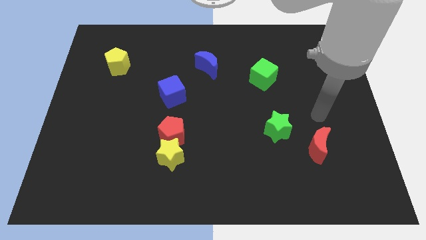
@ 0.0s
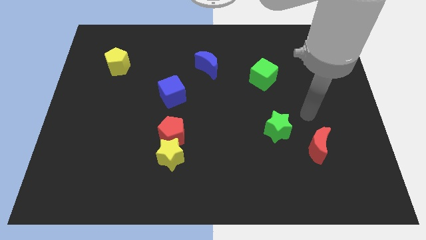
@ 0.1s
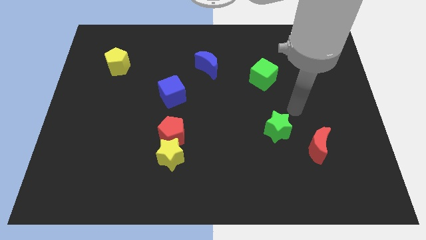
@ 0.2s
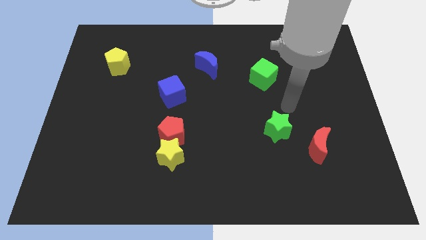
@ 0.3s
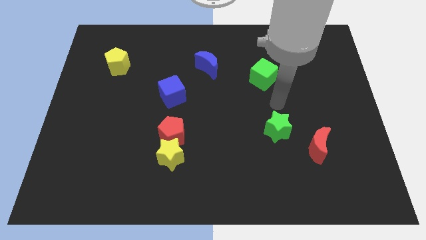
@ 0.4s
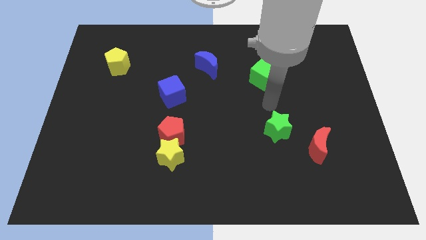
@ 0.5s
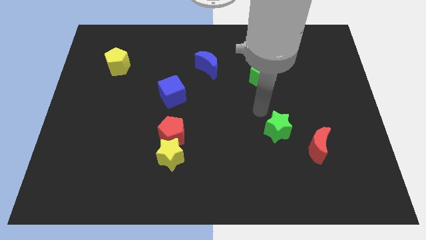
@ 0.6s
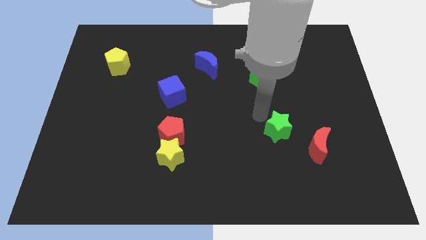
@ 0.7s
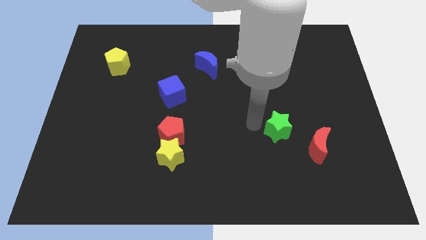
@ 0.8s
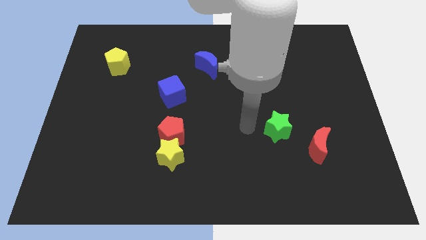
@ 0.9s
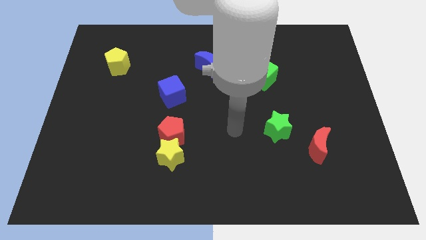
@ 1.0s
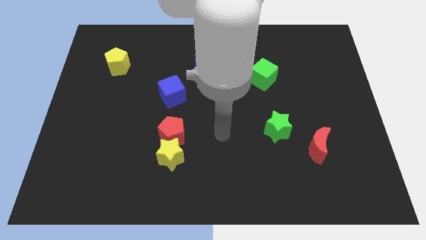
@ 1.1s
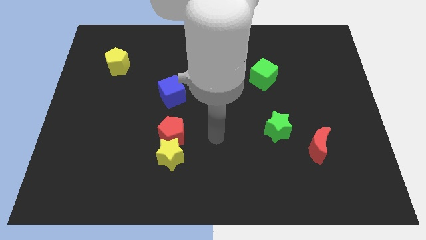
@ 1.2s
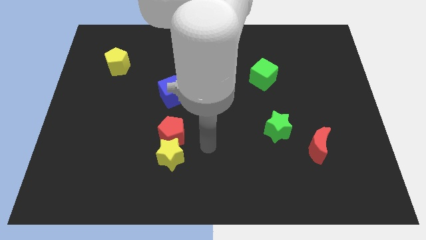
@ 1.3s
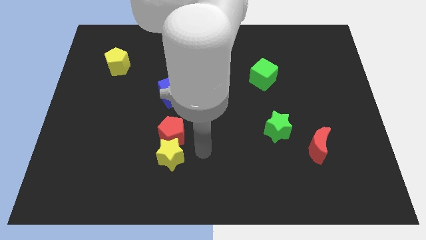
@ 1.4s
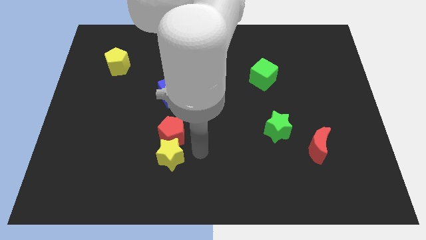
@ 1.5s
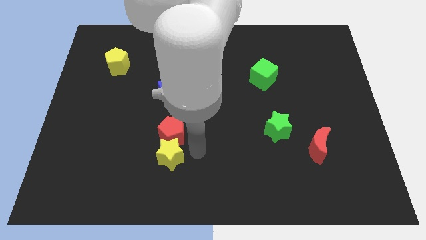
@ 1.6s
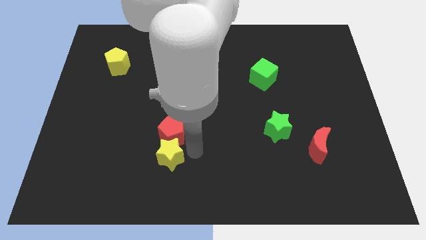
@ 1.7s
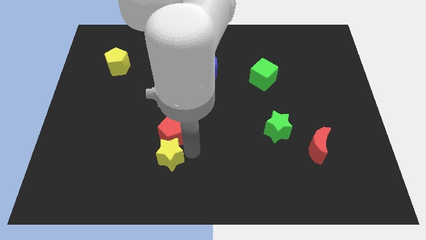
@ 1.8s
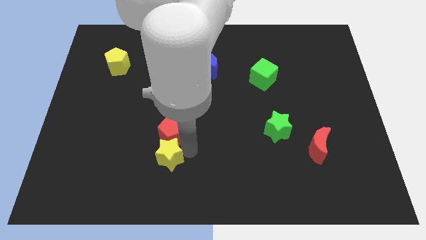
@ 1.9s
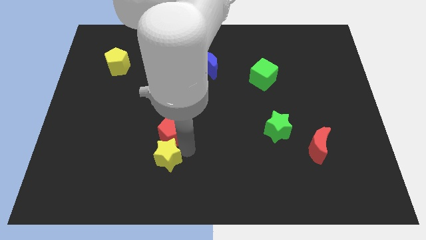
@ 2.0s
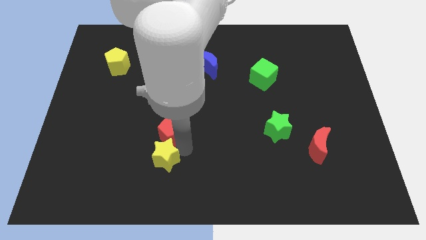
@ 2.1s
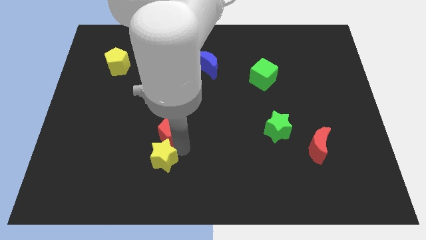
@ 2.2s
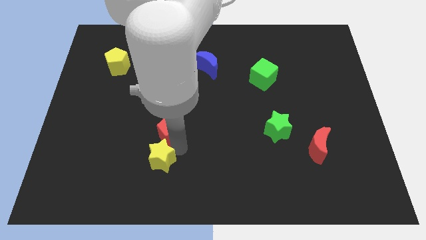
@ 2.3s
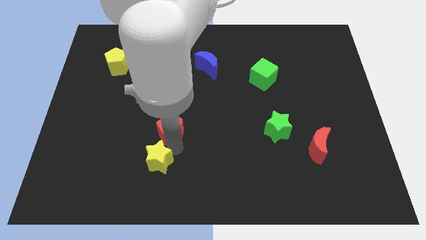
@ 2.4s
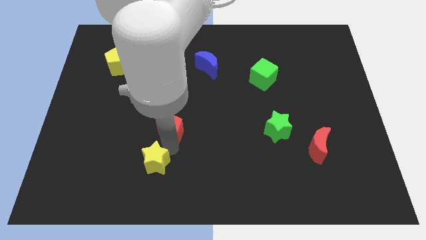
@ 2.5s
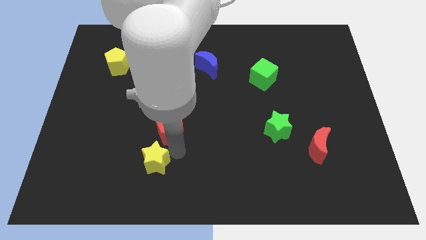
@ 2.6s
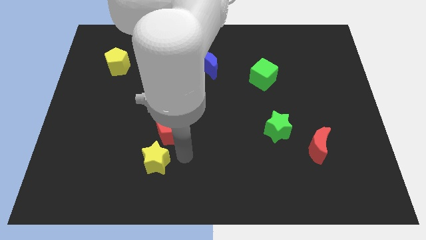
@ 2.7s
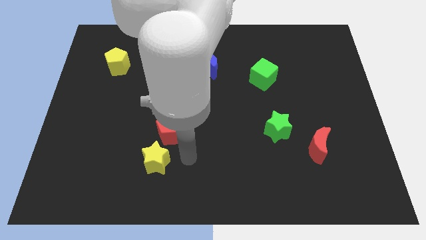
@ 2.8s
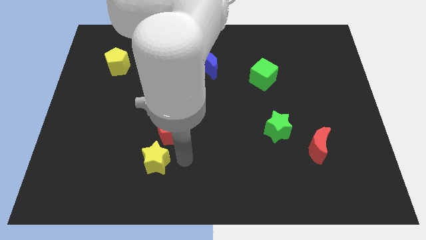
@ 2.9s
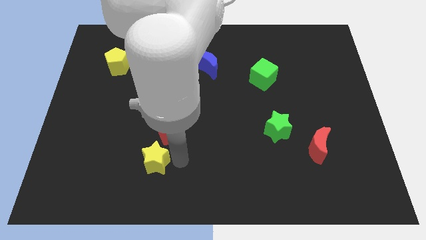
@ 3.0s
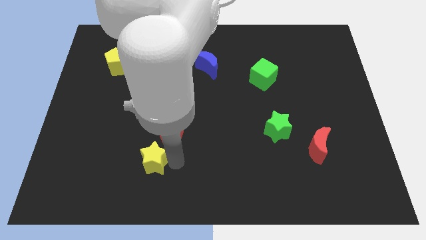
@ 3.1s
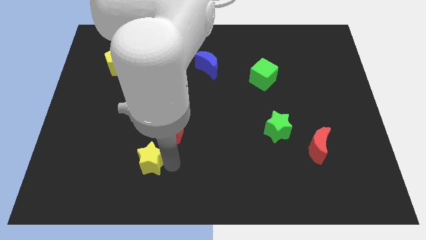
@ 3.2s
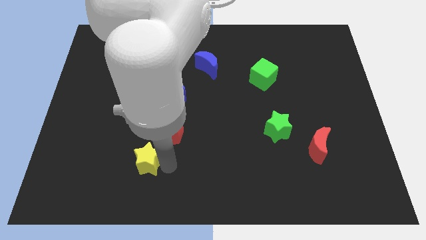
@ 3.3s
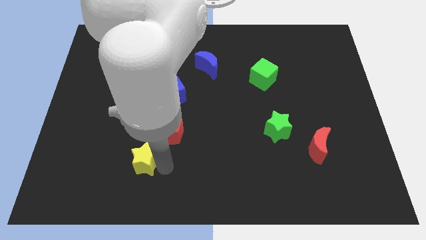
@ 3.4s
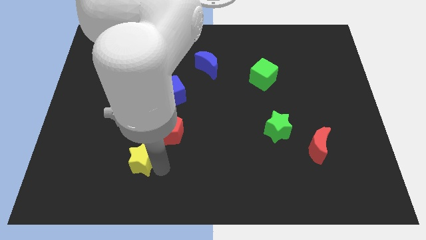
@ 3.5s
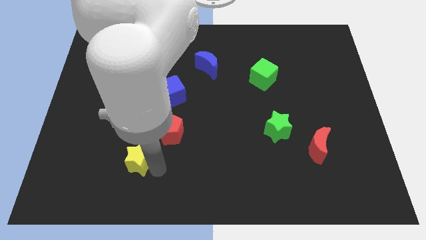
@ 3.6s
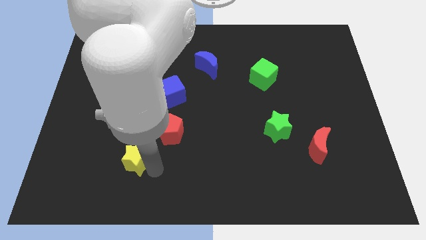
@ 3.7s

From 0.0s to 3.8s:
move the yellow star to the left a little bit

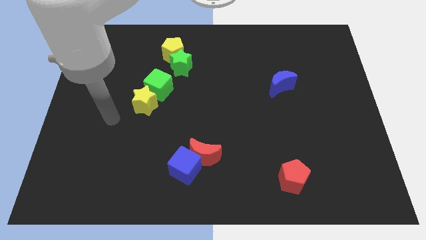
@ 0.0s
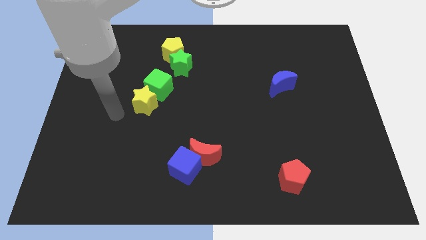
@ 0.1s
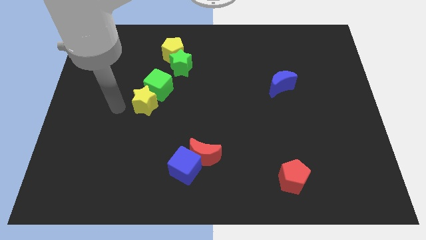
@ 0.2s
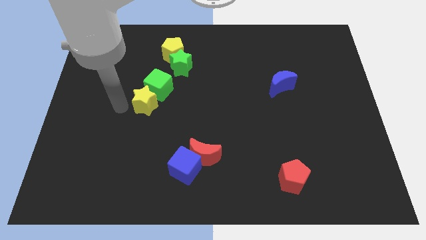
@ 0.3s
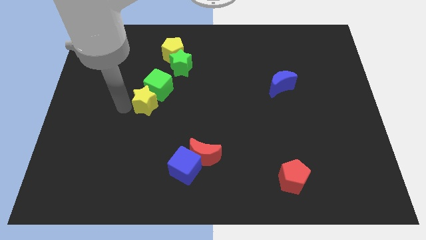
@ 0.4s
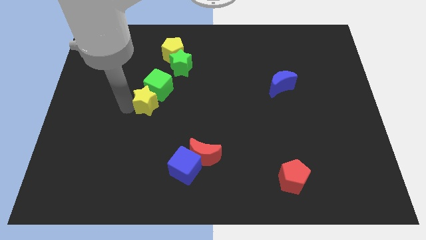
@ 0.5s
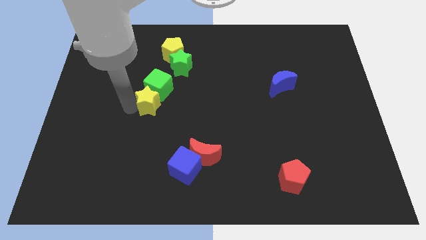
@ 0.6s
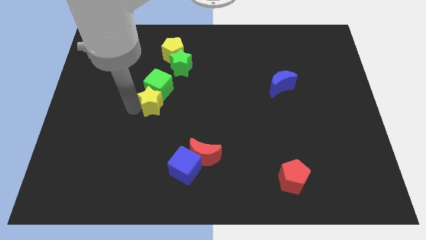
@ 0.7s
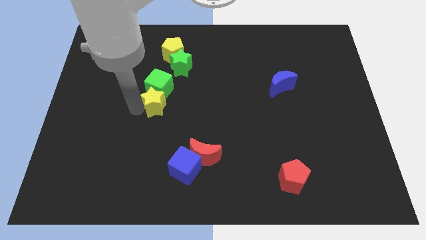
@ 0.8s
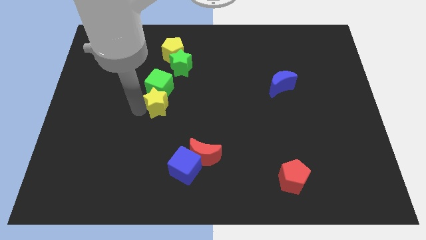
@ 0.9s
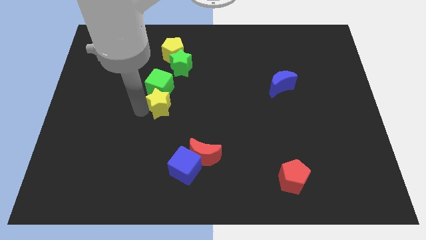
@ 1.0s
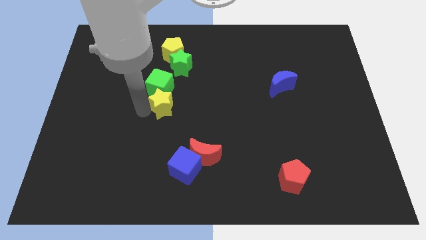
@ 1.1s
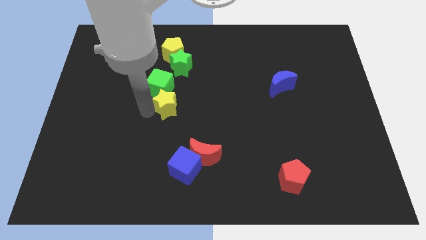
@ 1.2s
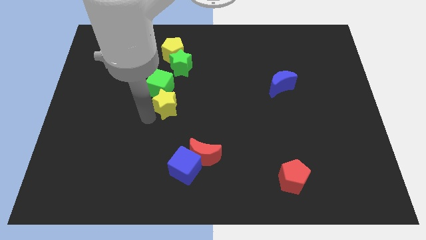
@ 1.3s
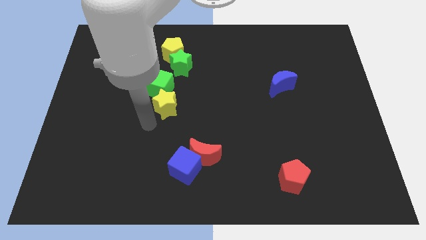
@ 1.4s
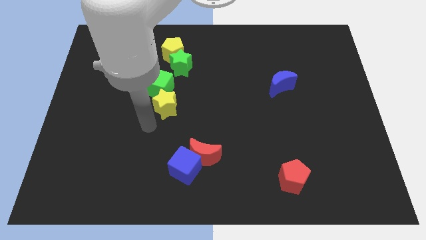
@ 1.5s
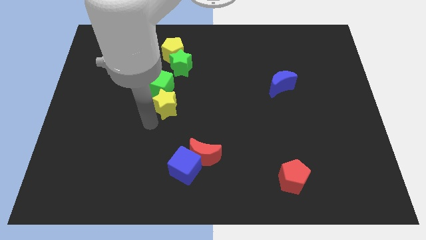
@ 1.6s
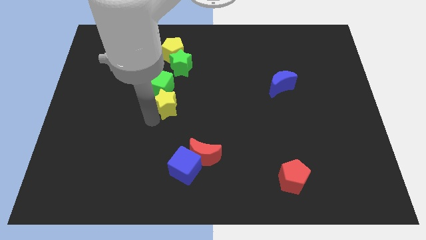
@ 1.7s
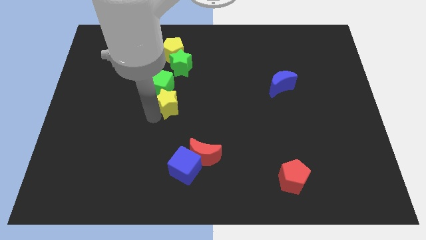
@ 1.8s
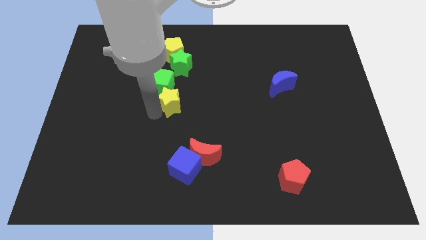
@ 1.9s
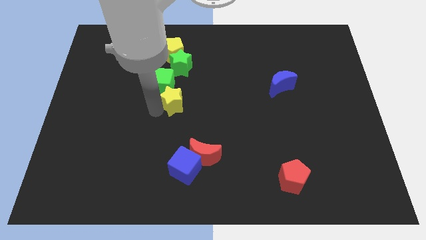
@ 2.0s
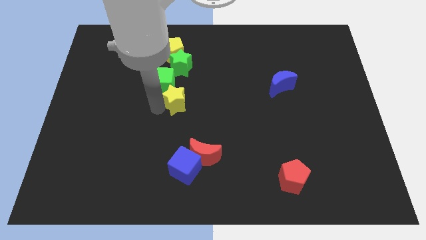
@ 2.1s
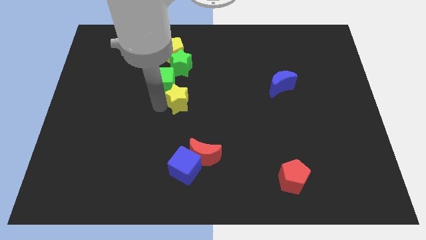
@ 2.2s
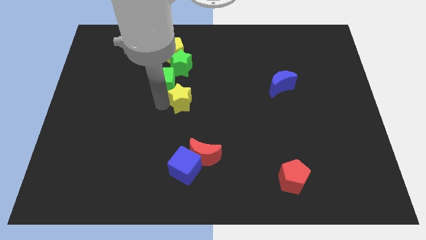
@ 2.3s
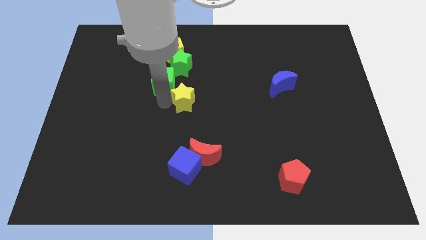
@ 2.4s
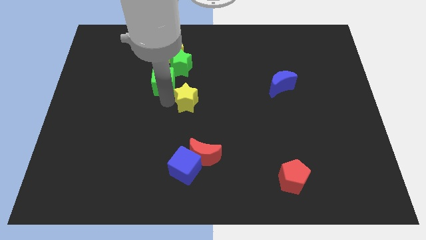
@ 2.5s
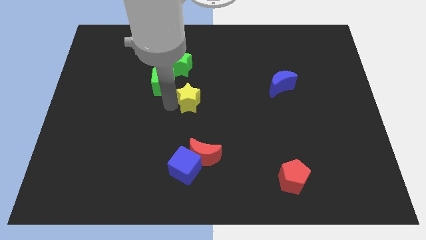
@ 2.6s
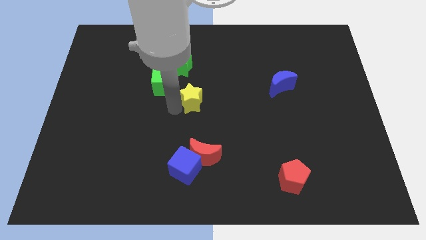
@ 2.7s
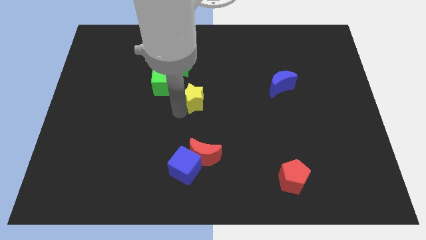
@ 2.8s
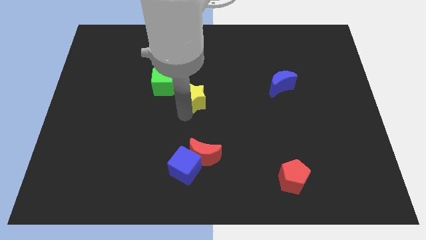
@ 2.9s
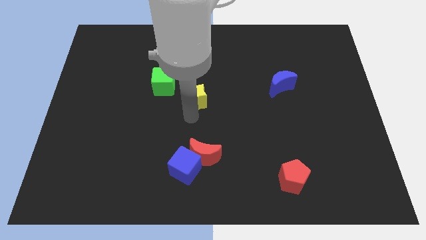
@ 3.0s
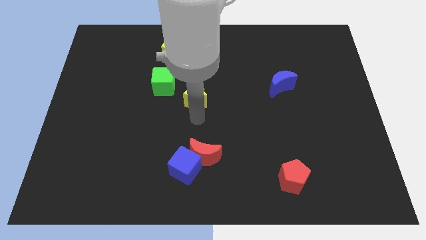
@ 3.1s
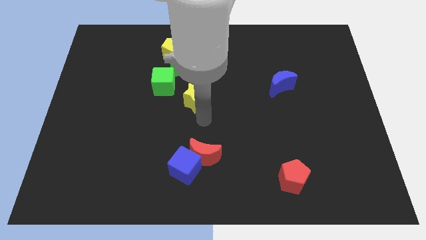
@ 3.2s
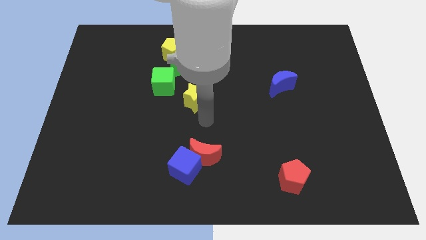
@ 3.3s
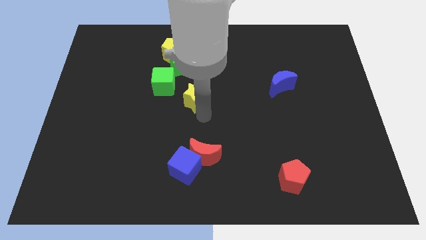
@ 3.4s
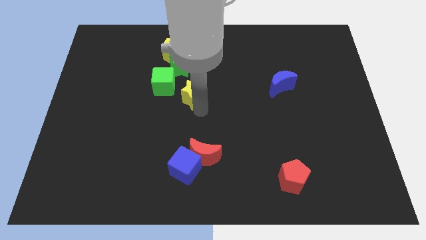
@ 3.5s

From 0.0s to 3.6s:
slide the yellow star a bit up and right diagonally

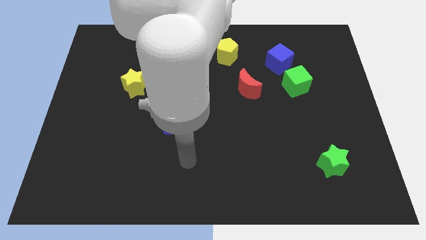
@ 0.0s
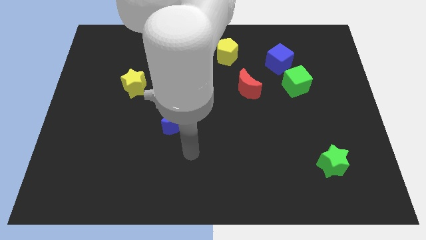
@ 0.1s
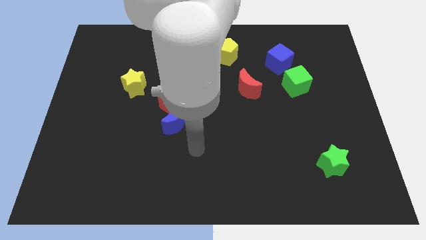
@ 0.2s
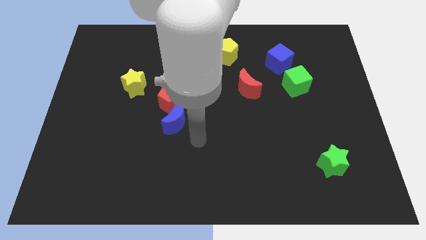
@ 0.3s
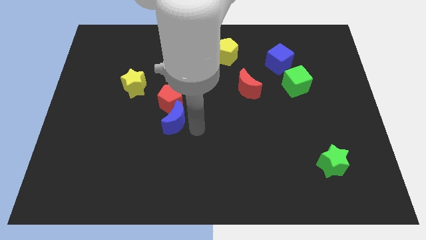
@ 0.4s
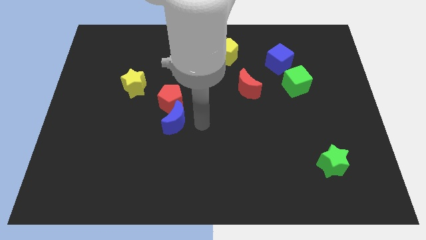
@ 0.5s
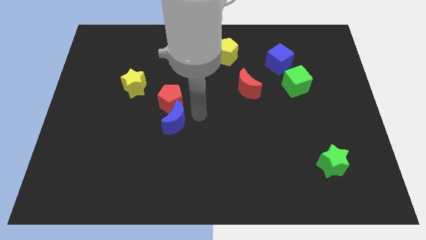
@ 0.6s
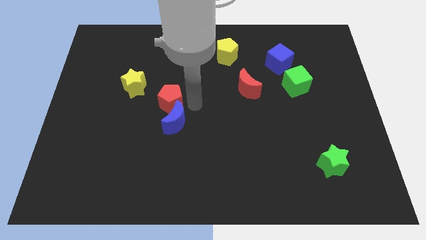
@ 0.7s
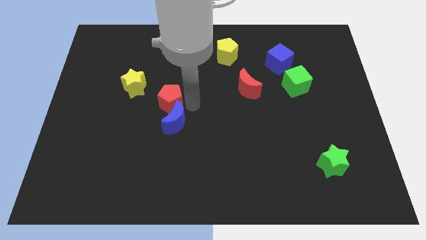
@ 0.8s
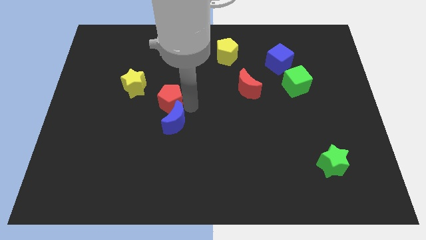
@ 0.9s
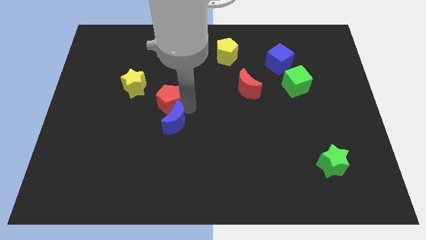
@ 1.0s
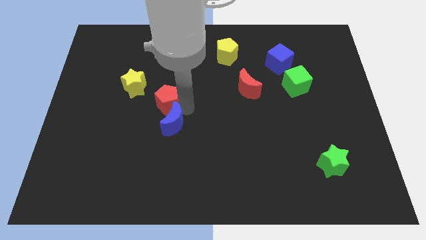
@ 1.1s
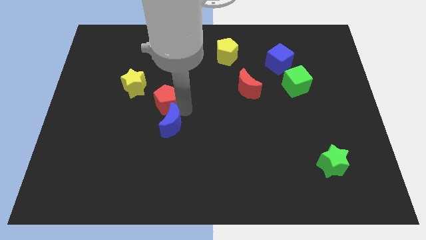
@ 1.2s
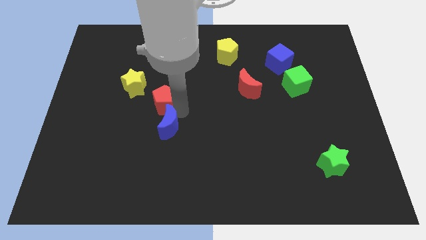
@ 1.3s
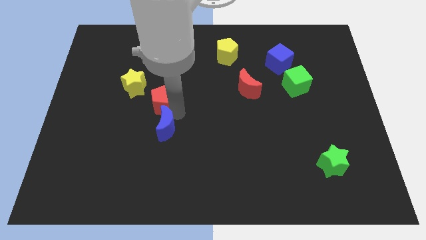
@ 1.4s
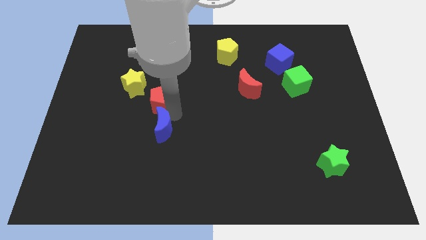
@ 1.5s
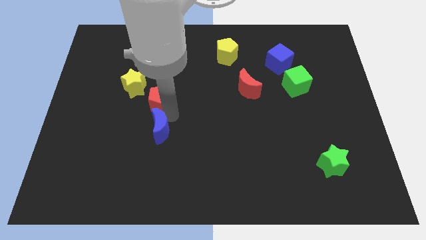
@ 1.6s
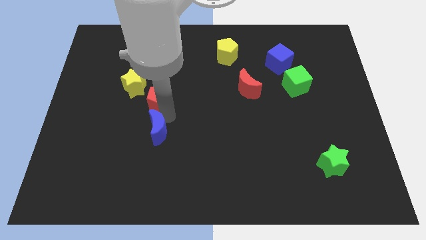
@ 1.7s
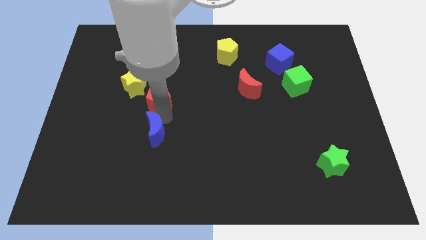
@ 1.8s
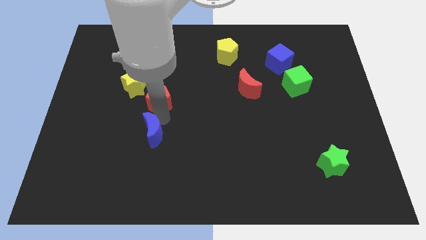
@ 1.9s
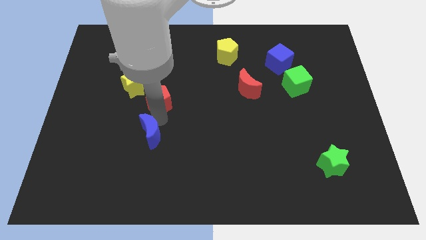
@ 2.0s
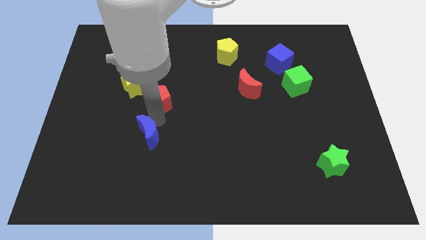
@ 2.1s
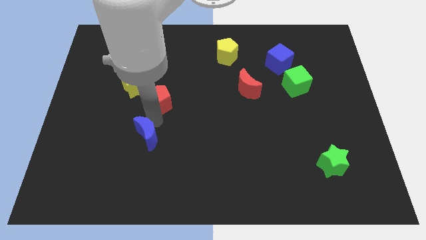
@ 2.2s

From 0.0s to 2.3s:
slide the blue moon slightly down and then left
